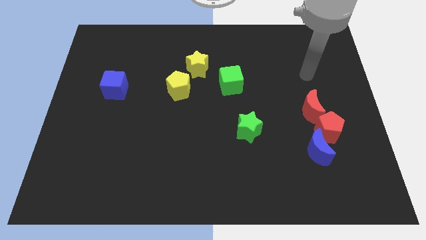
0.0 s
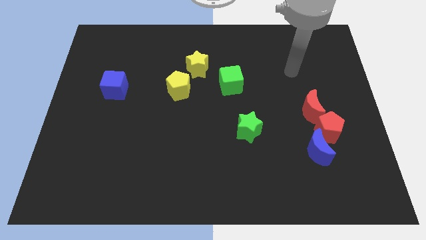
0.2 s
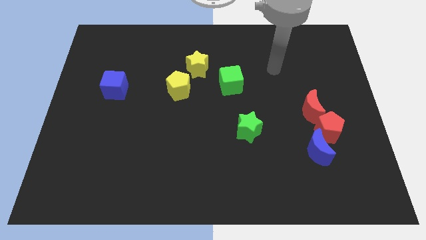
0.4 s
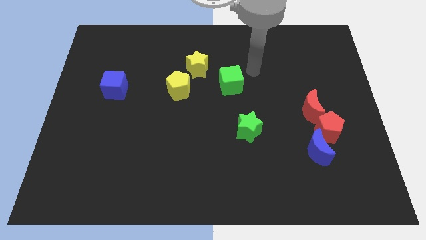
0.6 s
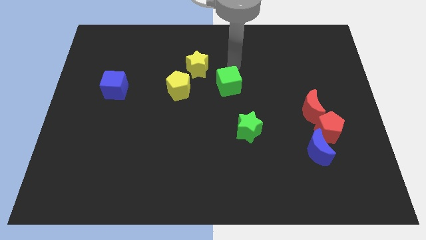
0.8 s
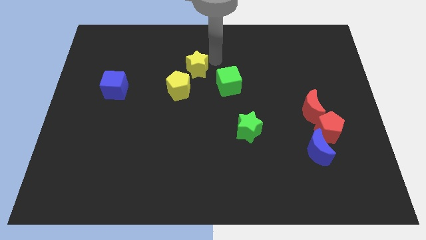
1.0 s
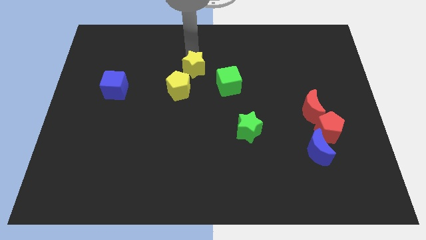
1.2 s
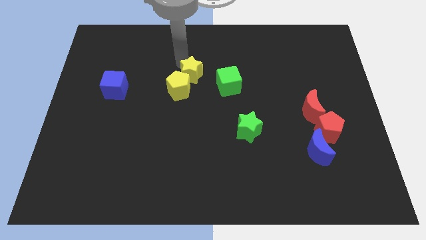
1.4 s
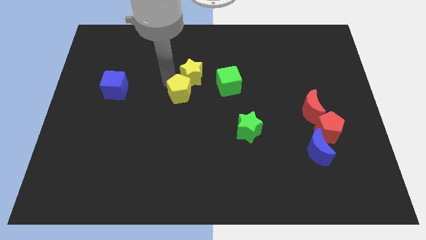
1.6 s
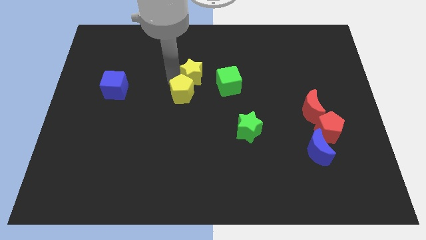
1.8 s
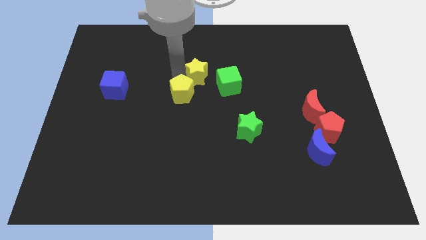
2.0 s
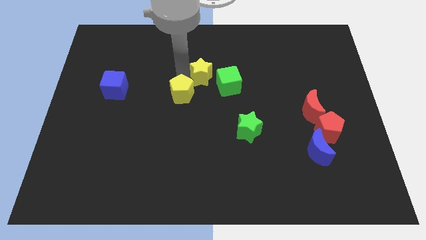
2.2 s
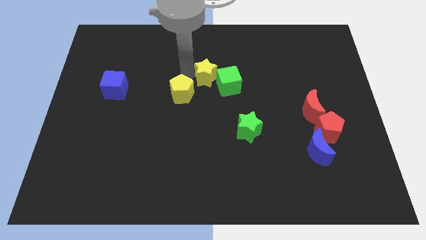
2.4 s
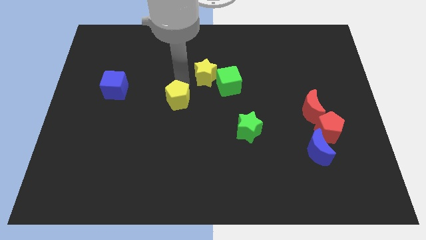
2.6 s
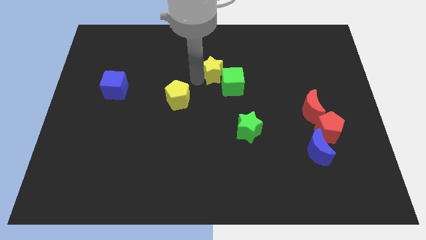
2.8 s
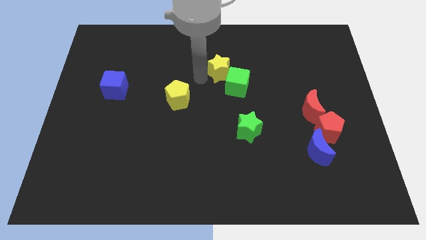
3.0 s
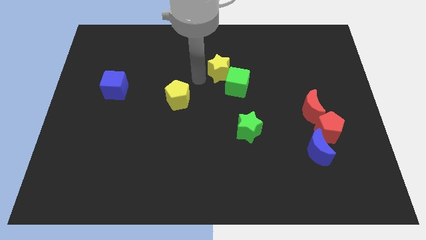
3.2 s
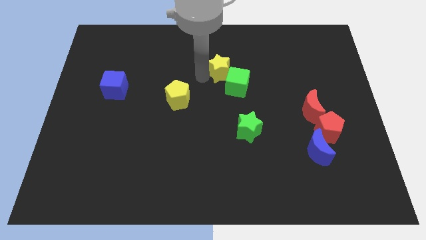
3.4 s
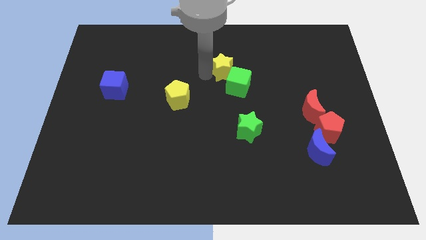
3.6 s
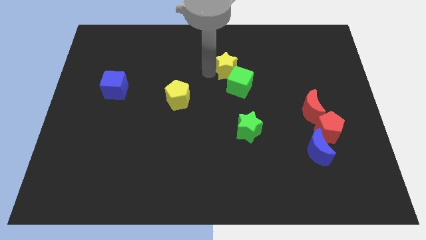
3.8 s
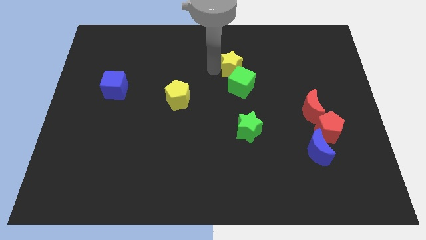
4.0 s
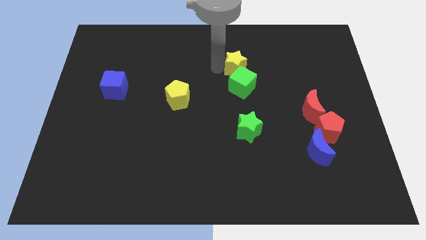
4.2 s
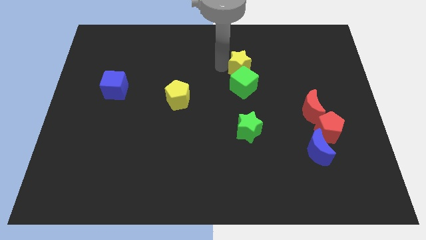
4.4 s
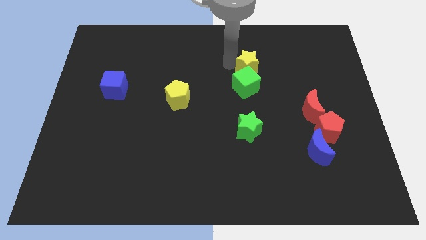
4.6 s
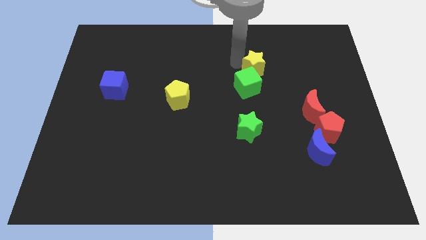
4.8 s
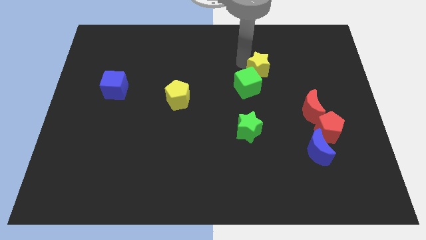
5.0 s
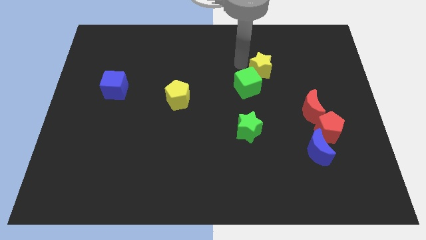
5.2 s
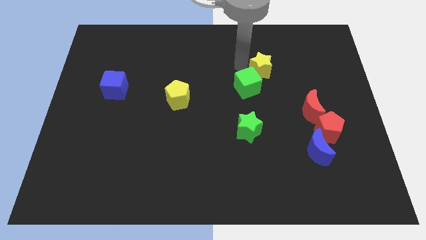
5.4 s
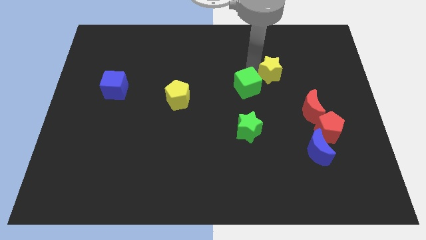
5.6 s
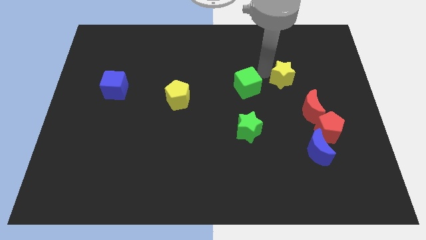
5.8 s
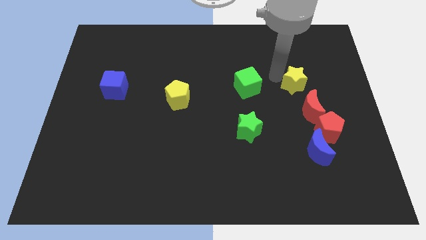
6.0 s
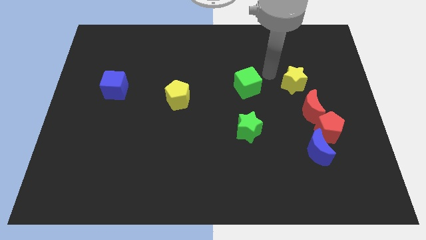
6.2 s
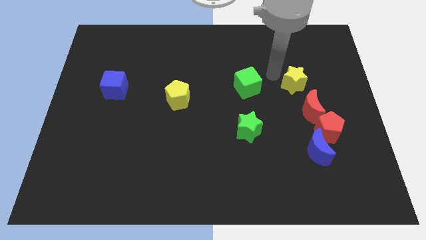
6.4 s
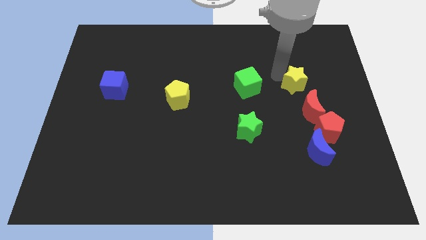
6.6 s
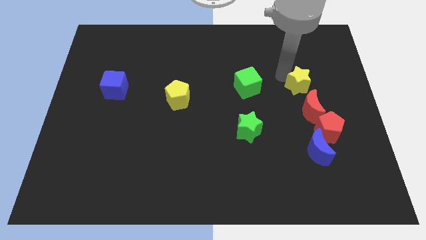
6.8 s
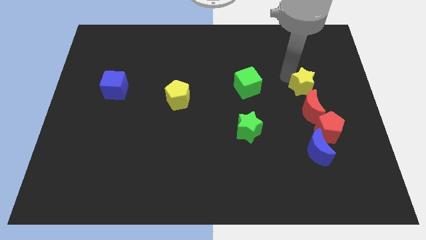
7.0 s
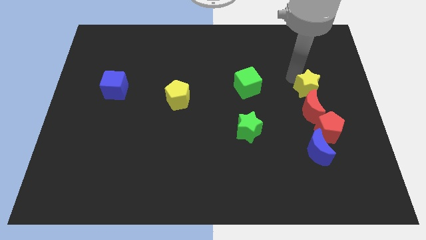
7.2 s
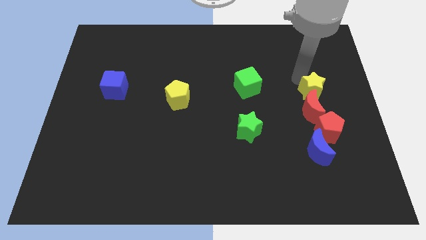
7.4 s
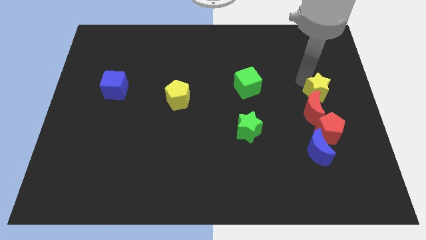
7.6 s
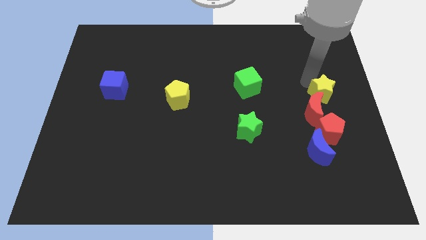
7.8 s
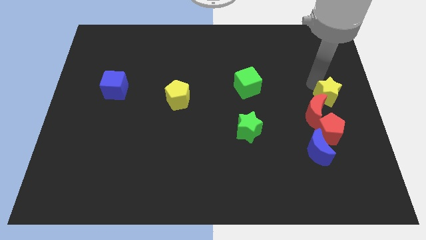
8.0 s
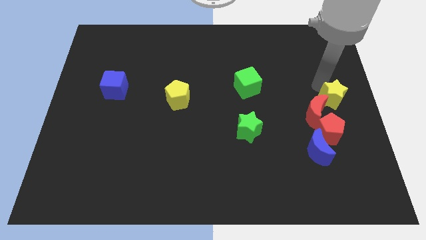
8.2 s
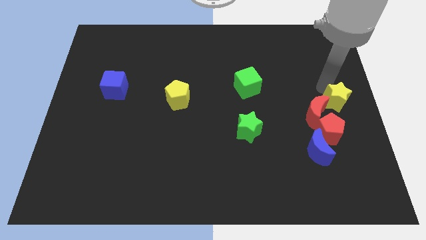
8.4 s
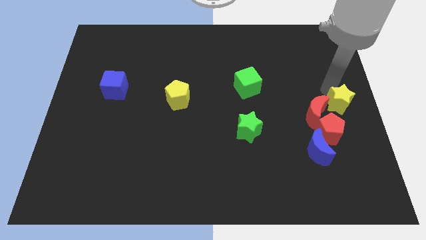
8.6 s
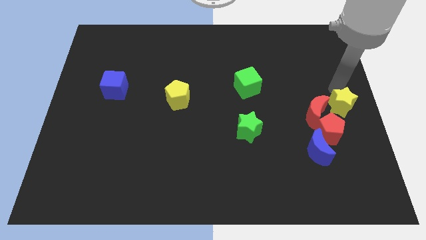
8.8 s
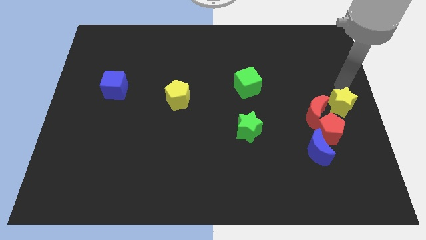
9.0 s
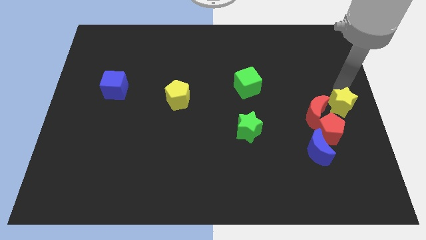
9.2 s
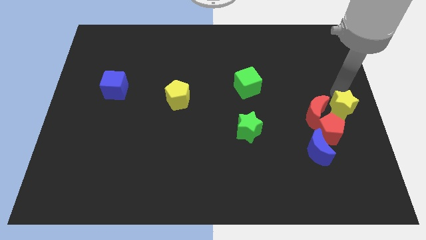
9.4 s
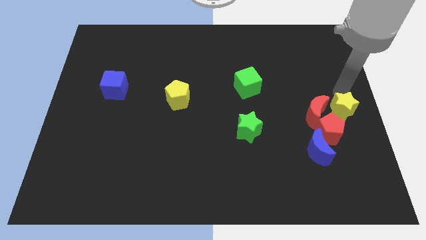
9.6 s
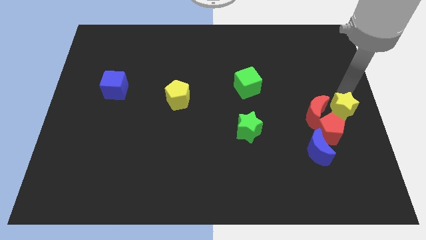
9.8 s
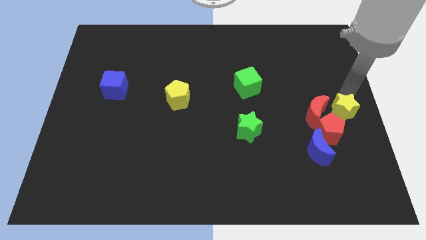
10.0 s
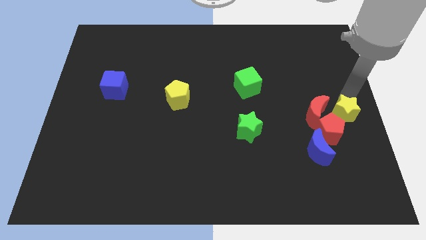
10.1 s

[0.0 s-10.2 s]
push the yellow star to the top right of the blue moon

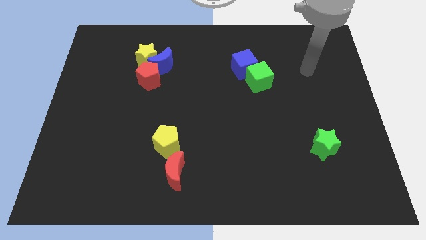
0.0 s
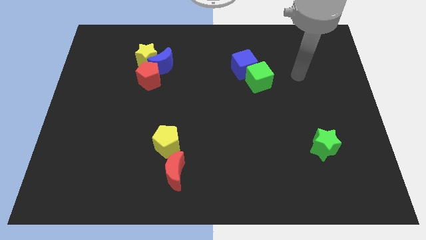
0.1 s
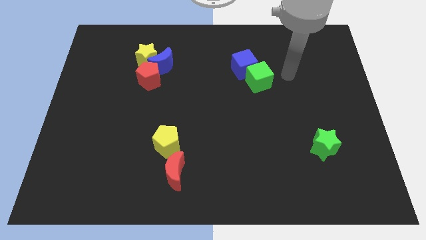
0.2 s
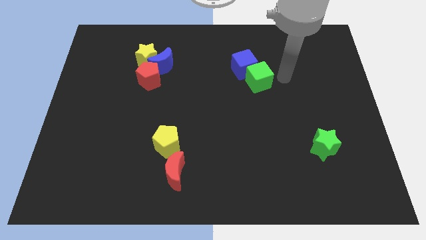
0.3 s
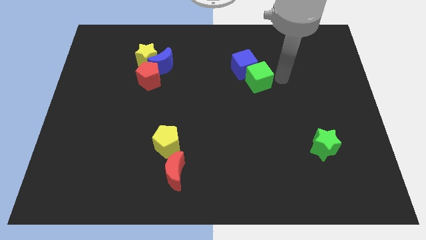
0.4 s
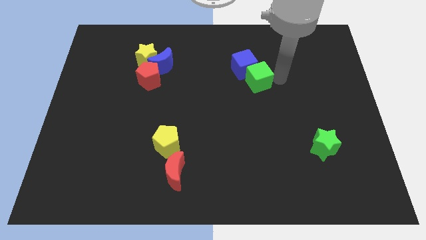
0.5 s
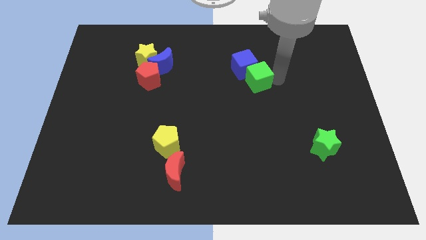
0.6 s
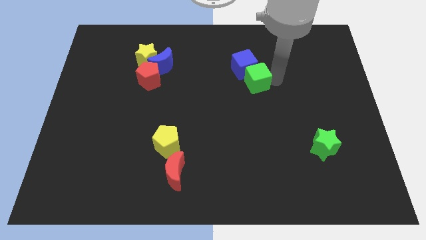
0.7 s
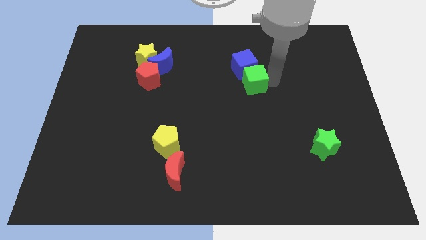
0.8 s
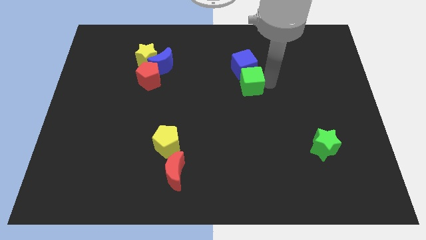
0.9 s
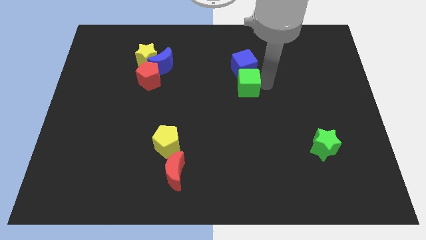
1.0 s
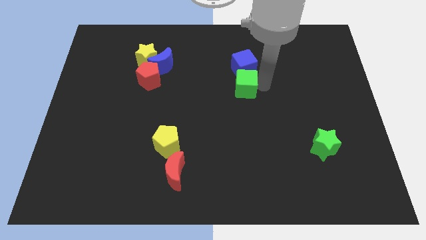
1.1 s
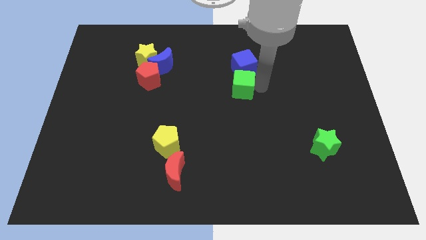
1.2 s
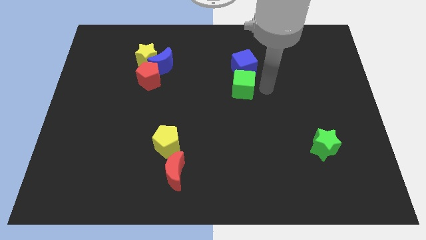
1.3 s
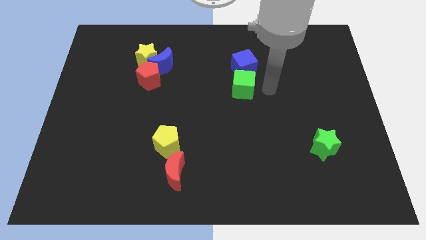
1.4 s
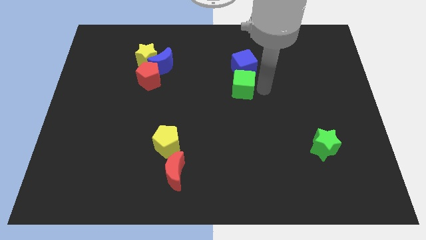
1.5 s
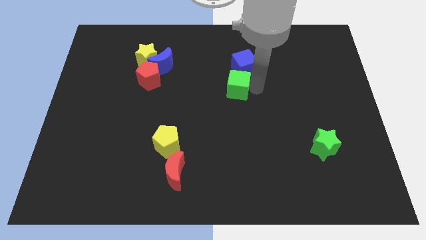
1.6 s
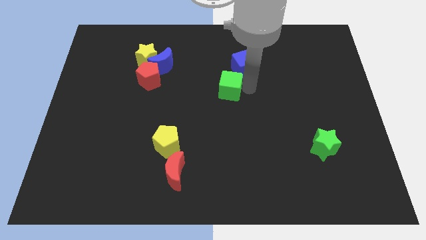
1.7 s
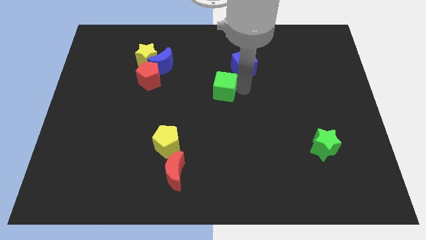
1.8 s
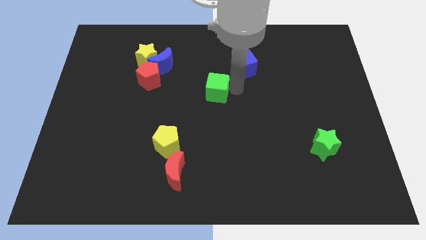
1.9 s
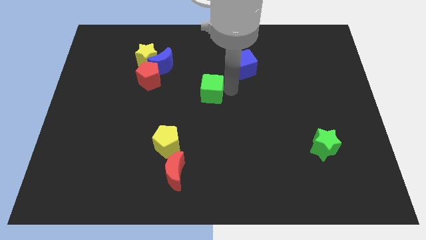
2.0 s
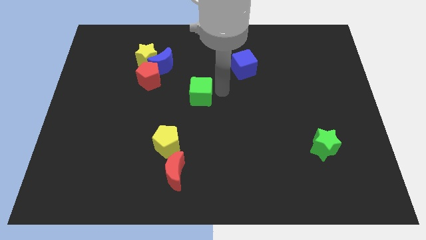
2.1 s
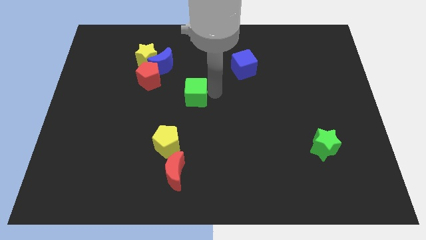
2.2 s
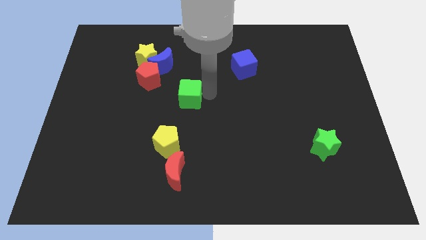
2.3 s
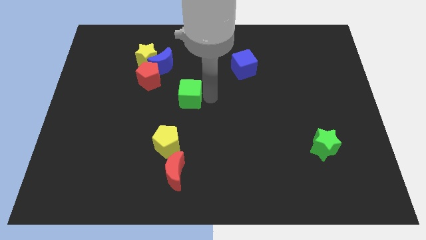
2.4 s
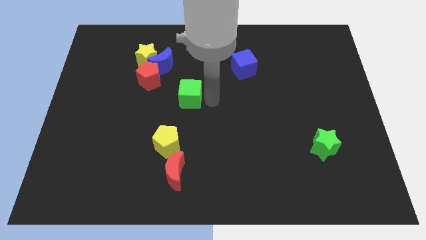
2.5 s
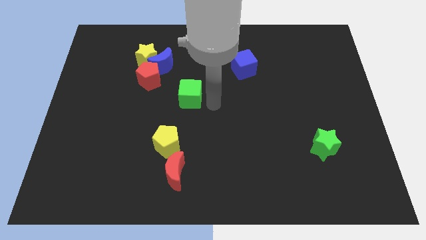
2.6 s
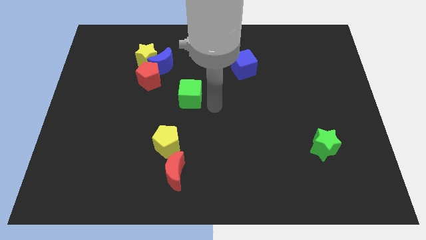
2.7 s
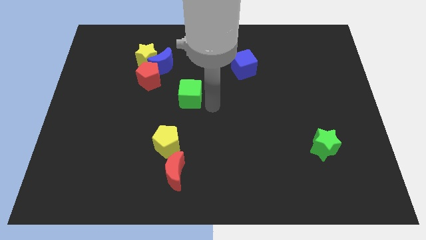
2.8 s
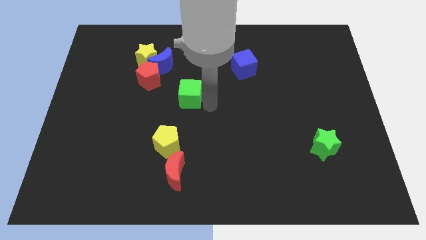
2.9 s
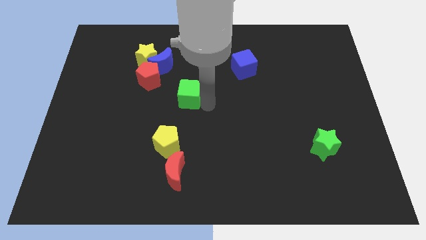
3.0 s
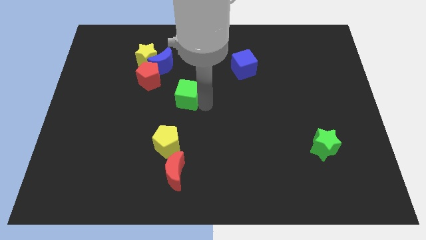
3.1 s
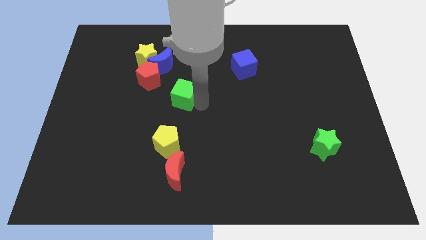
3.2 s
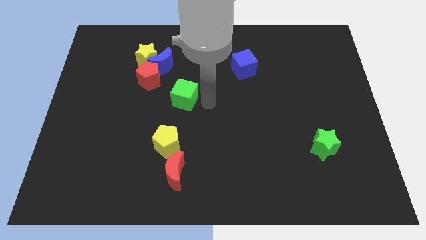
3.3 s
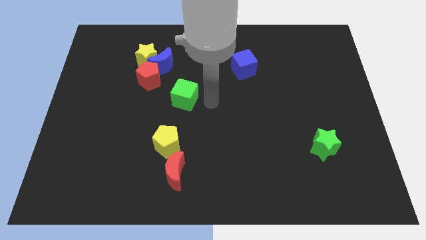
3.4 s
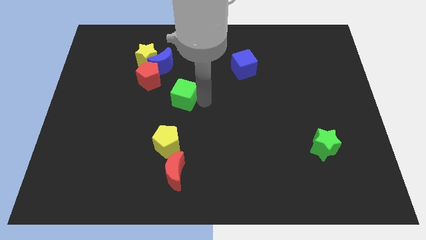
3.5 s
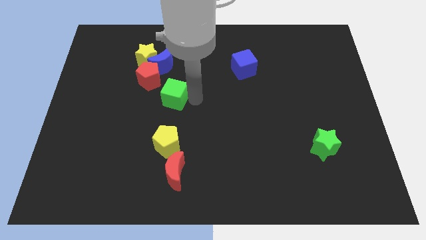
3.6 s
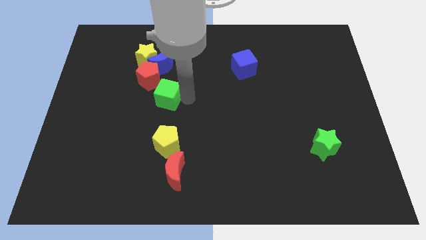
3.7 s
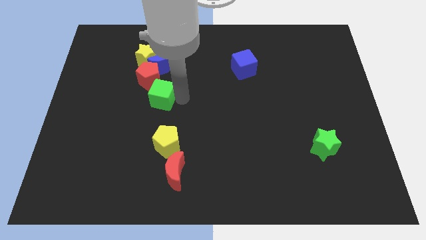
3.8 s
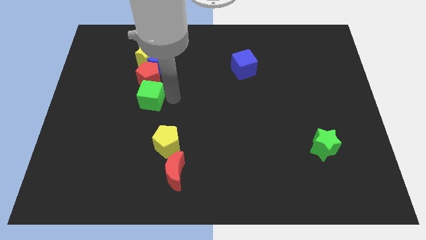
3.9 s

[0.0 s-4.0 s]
move the green cube to the bottom left side of the red pentagon
